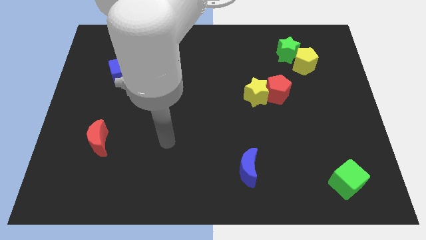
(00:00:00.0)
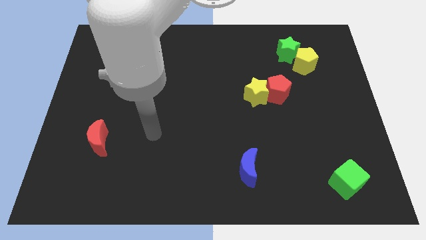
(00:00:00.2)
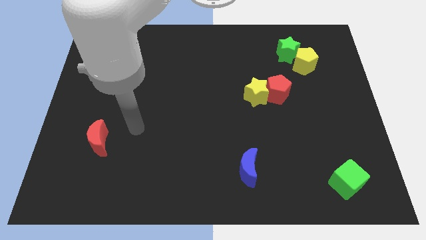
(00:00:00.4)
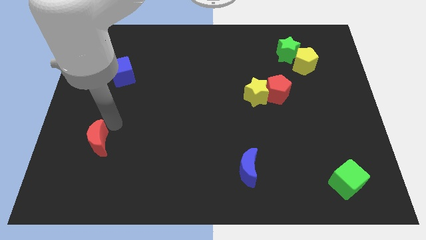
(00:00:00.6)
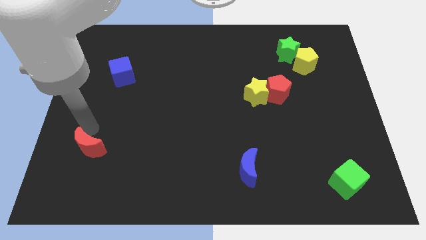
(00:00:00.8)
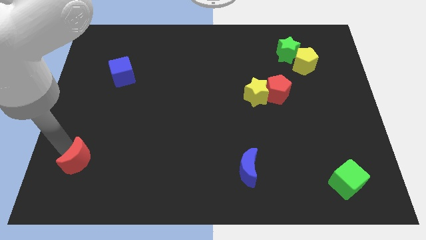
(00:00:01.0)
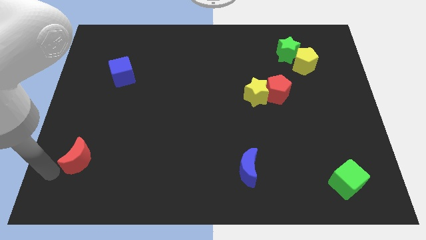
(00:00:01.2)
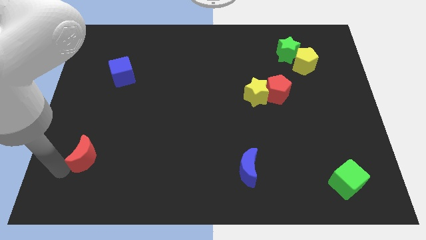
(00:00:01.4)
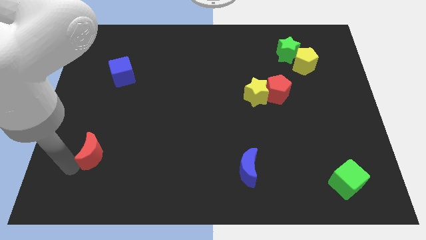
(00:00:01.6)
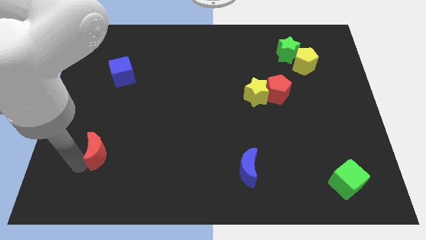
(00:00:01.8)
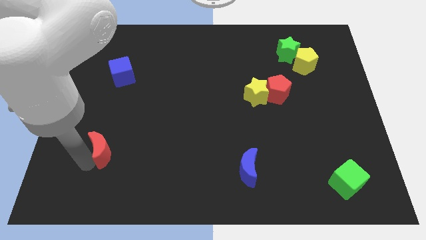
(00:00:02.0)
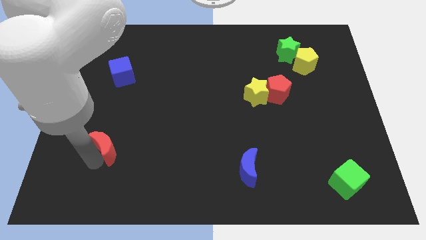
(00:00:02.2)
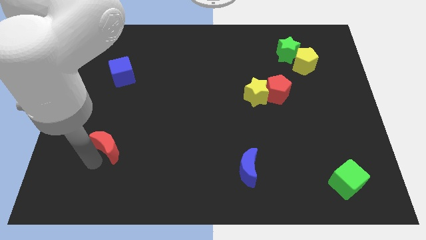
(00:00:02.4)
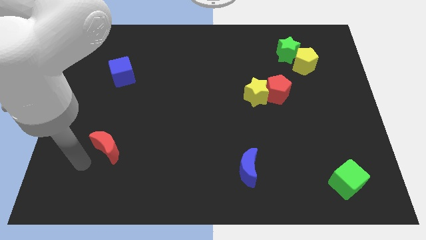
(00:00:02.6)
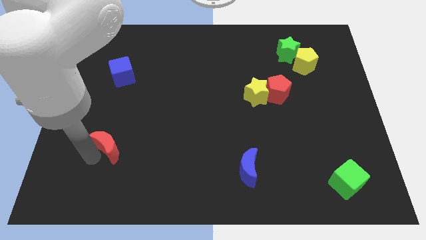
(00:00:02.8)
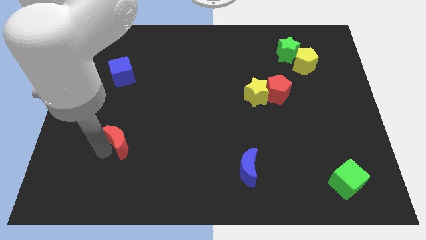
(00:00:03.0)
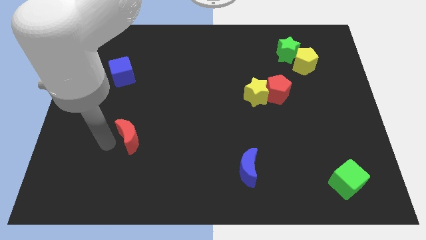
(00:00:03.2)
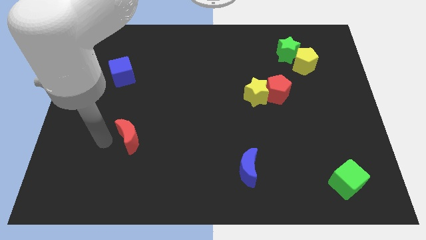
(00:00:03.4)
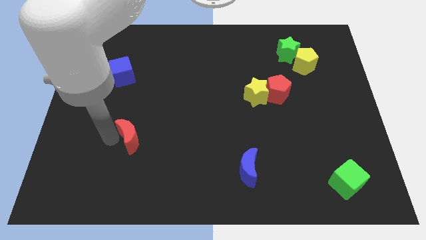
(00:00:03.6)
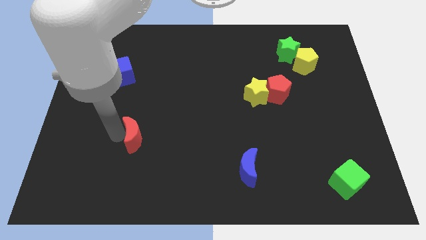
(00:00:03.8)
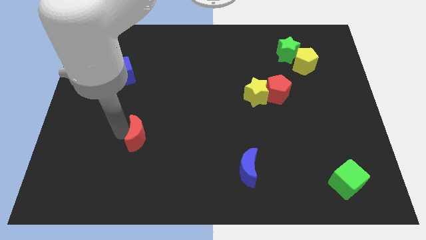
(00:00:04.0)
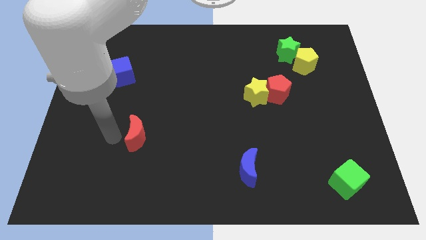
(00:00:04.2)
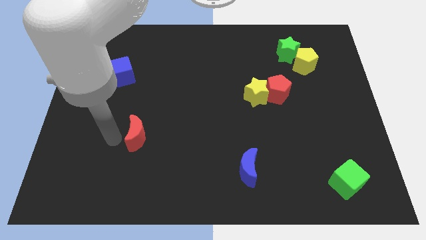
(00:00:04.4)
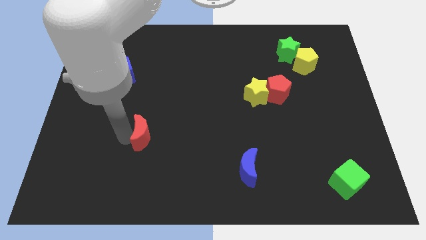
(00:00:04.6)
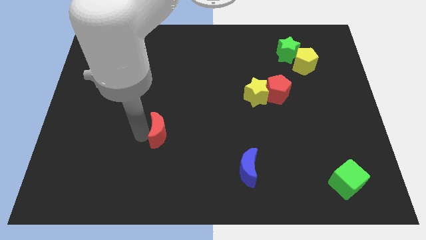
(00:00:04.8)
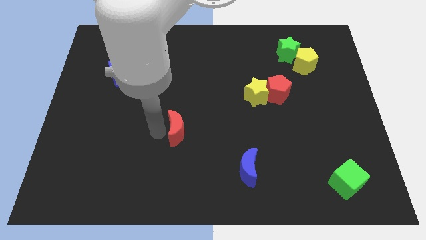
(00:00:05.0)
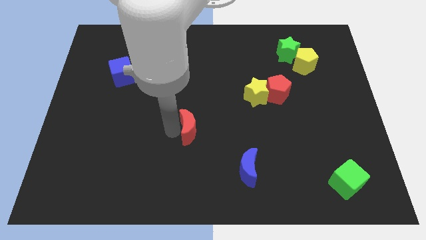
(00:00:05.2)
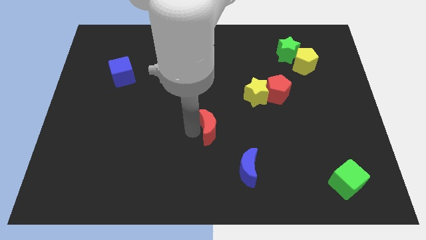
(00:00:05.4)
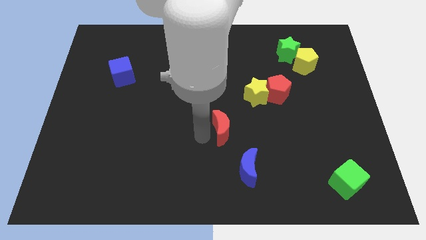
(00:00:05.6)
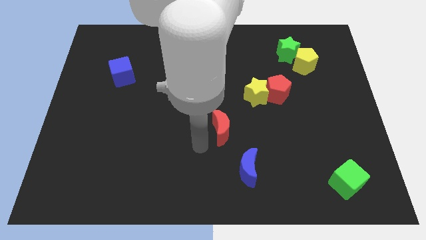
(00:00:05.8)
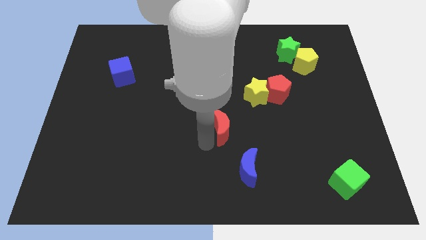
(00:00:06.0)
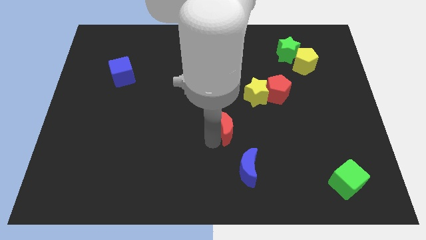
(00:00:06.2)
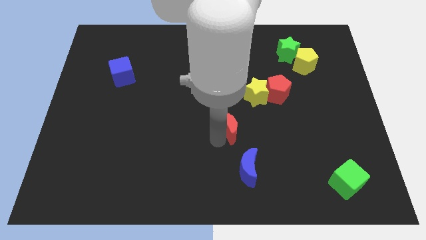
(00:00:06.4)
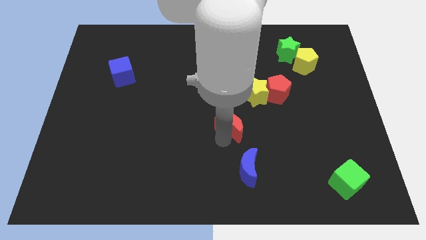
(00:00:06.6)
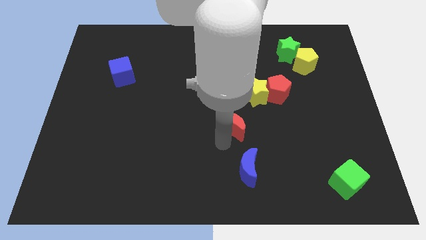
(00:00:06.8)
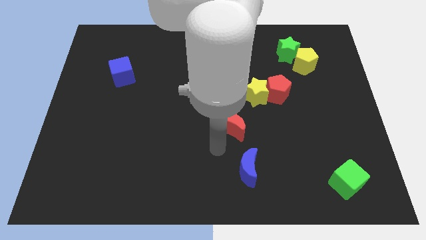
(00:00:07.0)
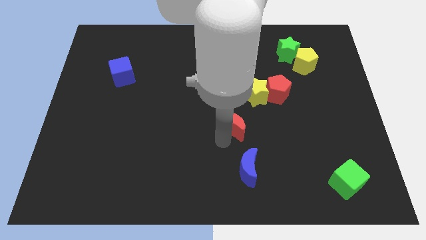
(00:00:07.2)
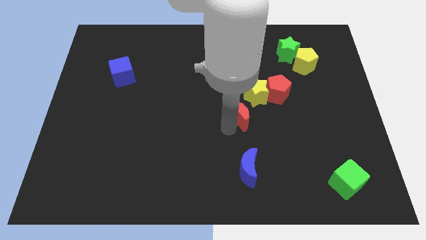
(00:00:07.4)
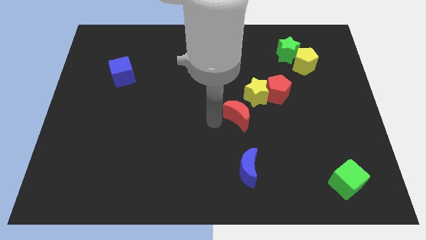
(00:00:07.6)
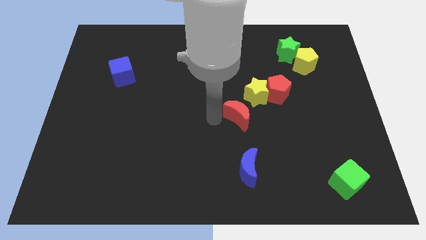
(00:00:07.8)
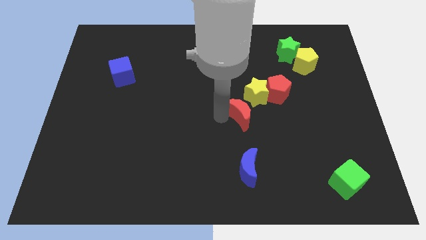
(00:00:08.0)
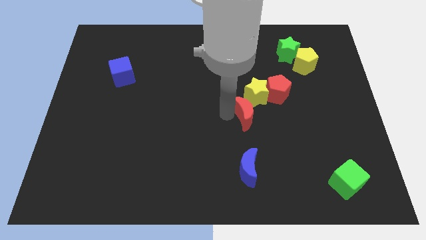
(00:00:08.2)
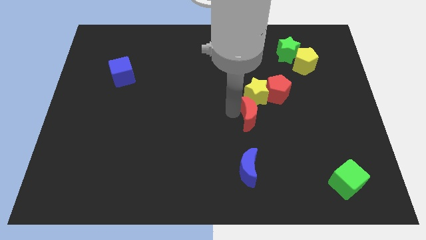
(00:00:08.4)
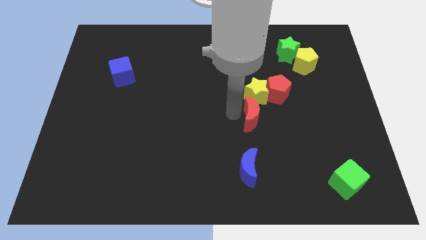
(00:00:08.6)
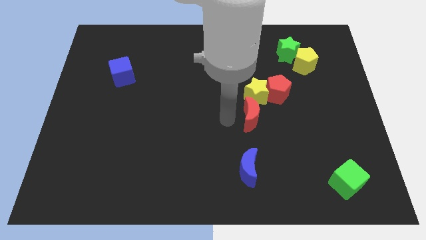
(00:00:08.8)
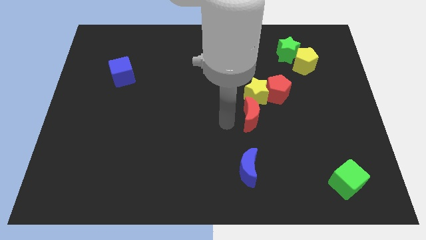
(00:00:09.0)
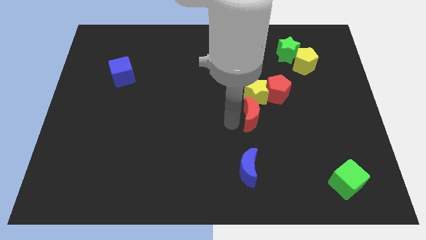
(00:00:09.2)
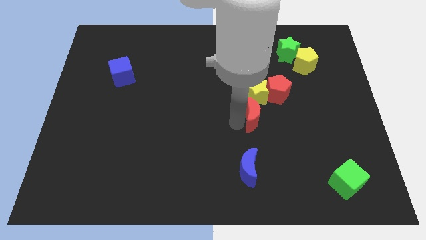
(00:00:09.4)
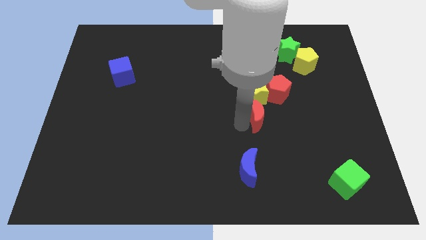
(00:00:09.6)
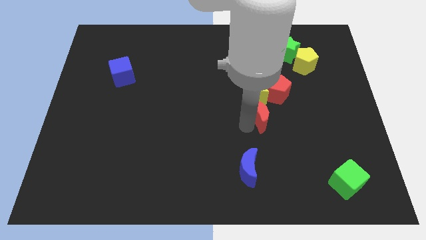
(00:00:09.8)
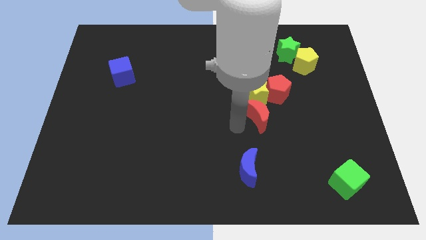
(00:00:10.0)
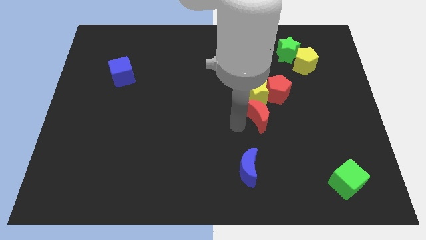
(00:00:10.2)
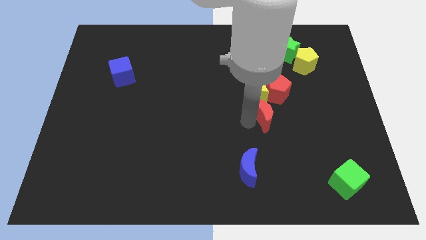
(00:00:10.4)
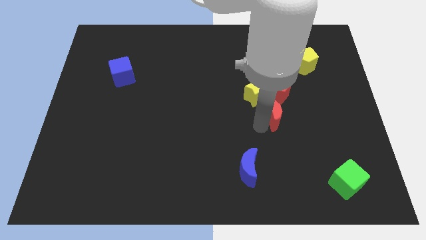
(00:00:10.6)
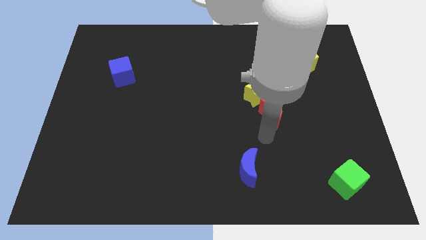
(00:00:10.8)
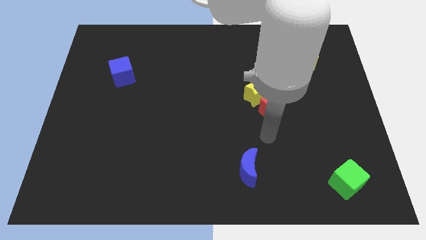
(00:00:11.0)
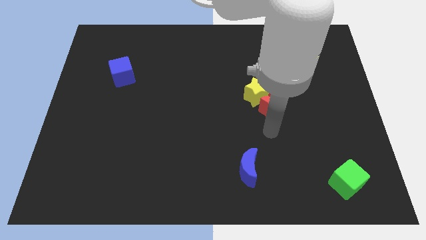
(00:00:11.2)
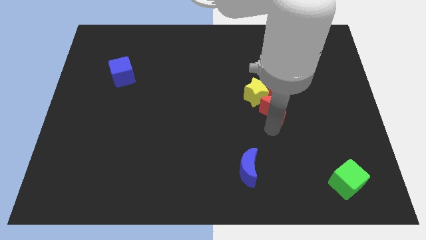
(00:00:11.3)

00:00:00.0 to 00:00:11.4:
move the red moon towards the red pentagon

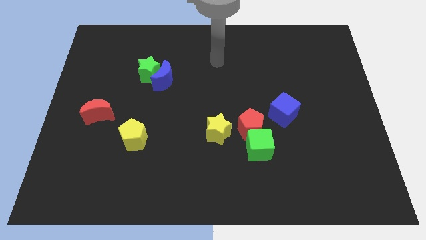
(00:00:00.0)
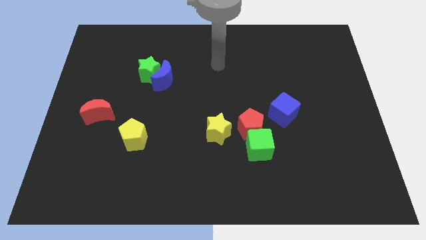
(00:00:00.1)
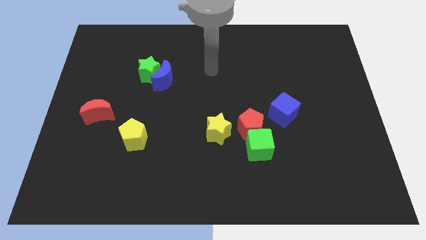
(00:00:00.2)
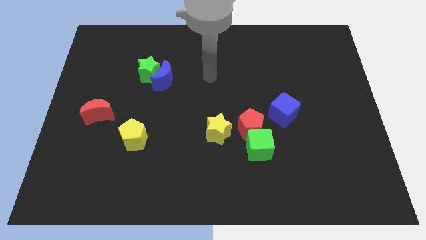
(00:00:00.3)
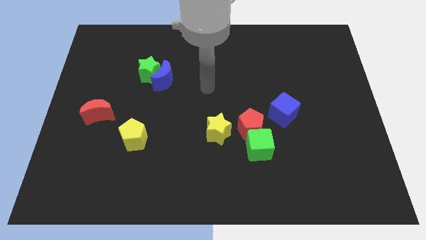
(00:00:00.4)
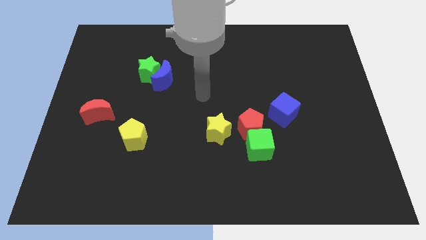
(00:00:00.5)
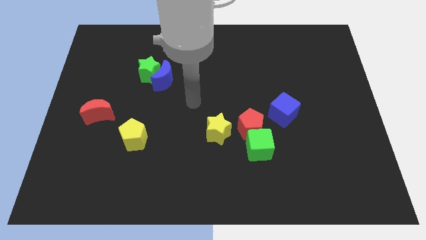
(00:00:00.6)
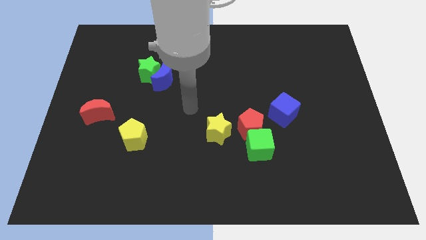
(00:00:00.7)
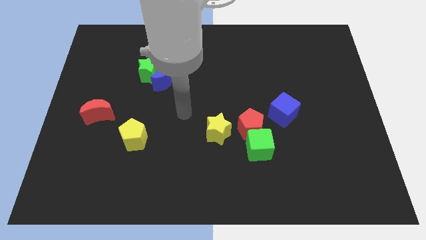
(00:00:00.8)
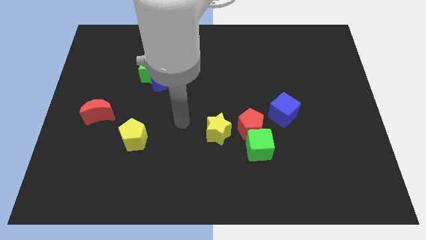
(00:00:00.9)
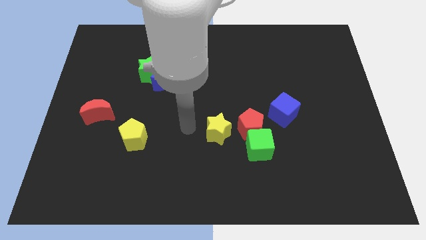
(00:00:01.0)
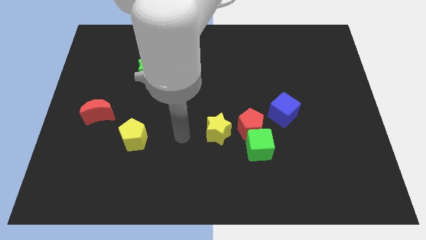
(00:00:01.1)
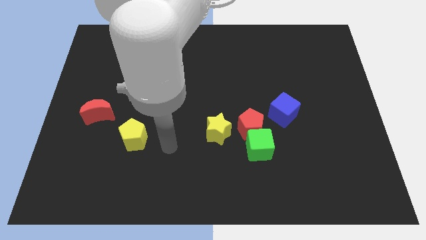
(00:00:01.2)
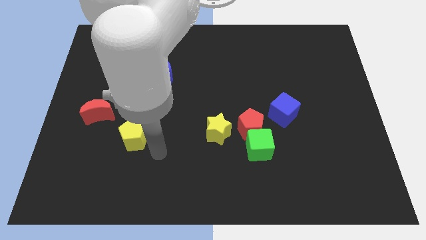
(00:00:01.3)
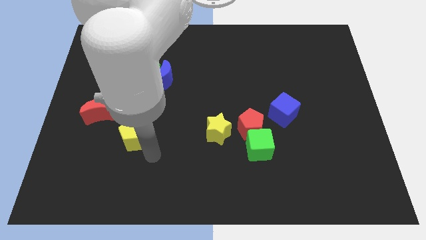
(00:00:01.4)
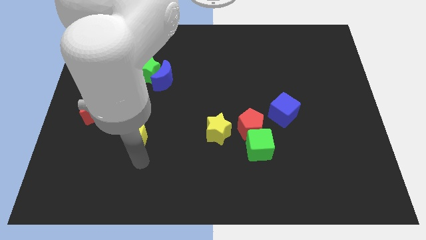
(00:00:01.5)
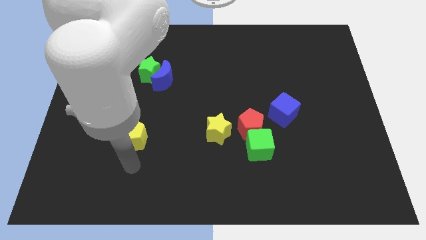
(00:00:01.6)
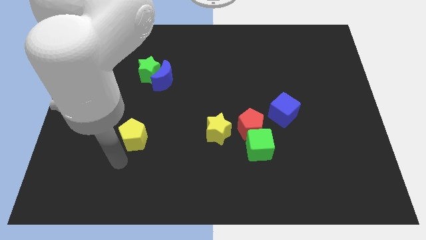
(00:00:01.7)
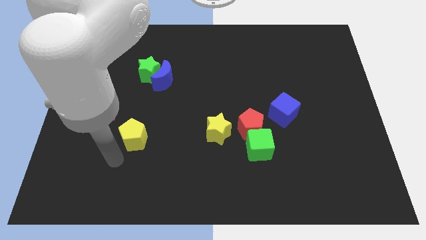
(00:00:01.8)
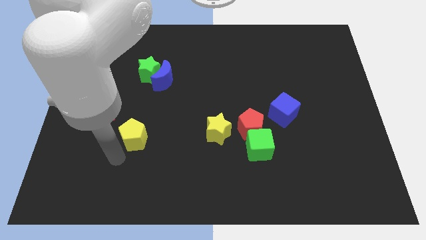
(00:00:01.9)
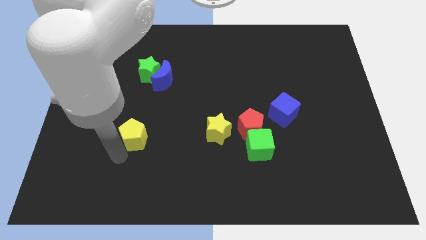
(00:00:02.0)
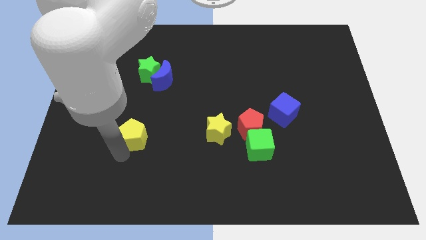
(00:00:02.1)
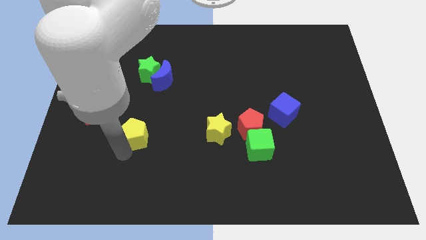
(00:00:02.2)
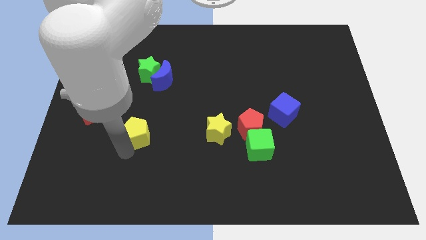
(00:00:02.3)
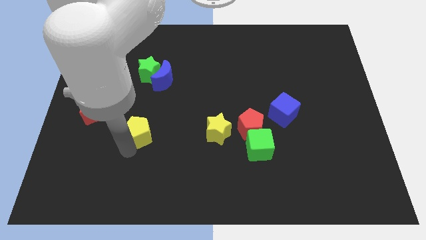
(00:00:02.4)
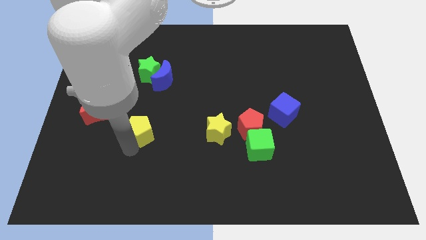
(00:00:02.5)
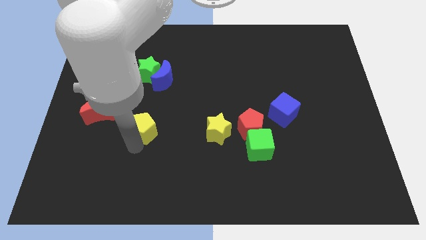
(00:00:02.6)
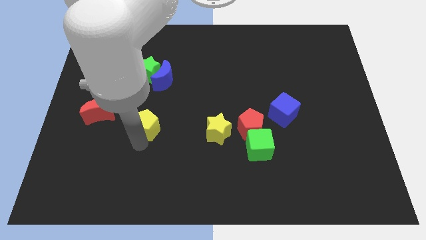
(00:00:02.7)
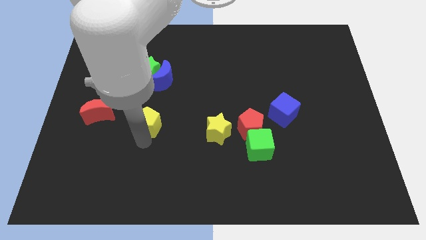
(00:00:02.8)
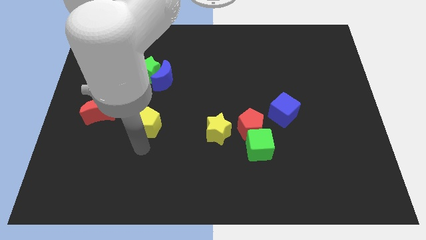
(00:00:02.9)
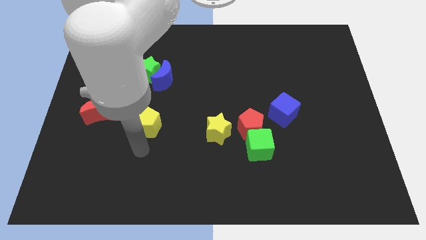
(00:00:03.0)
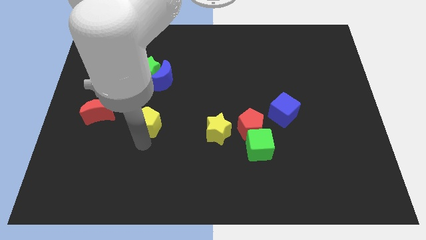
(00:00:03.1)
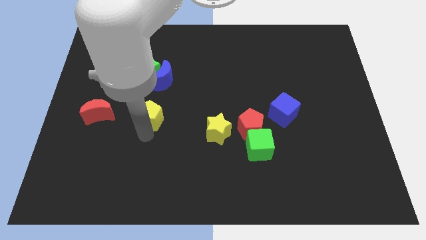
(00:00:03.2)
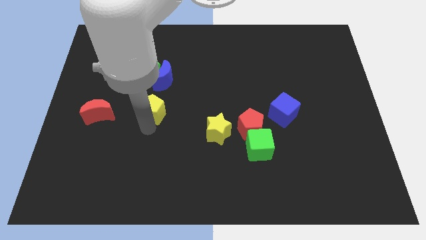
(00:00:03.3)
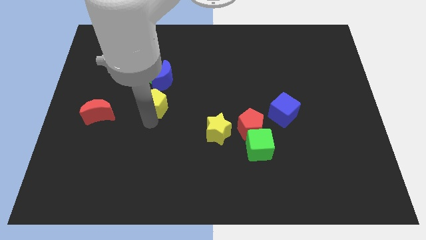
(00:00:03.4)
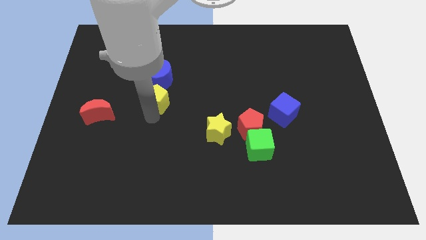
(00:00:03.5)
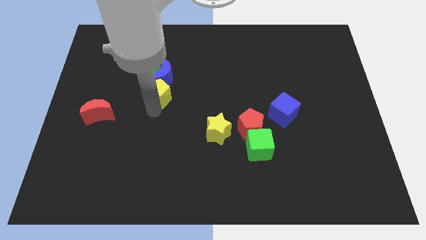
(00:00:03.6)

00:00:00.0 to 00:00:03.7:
slide the yellow pentagon close to the blue moon
